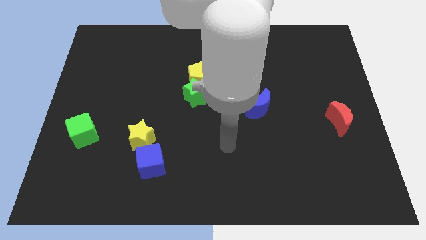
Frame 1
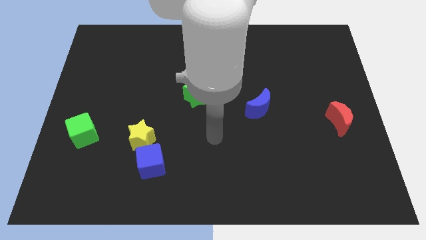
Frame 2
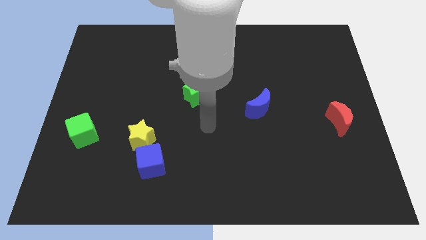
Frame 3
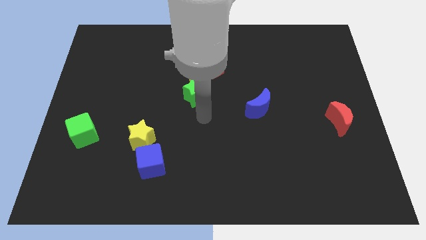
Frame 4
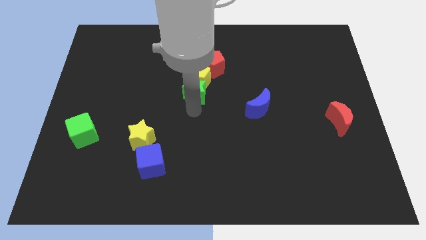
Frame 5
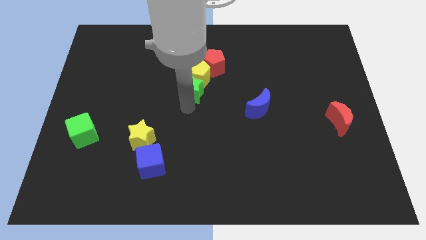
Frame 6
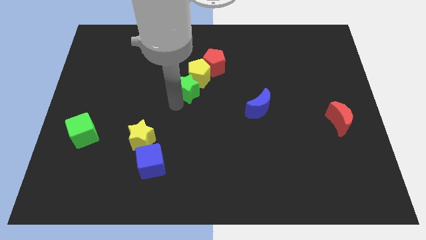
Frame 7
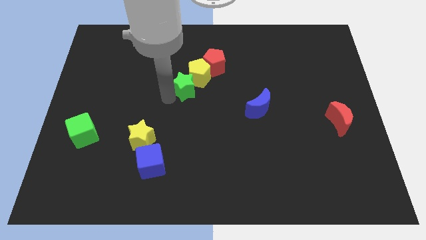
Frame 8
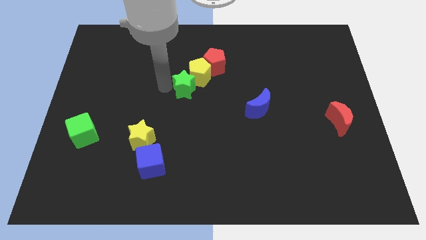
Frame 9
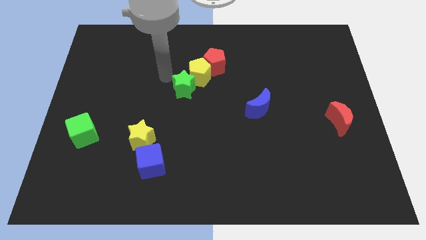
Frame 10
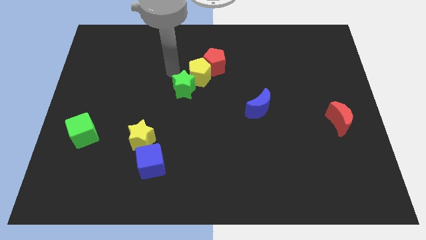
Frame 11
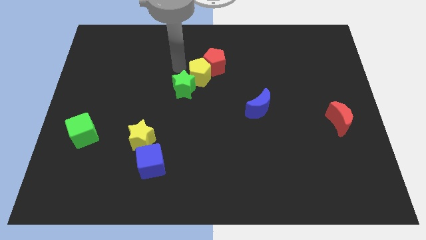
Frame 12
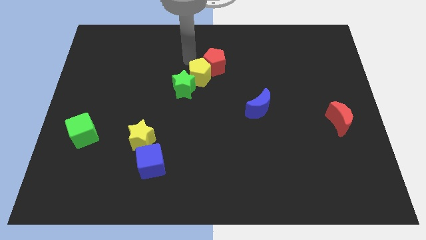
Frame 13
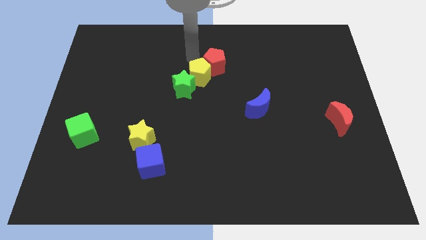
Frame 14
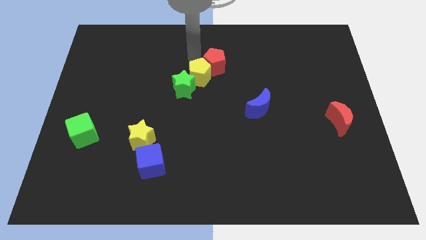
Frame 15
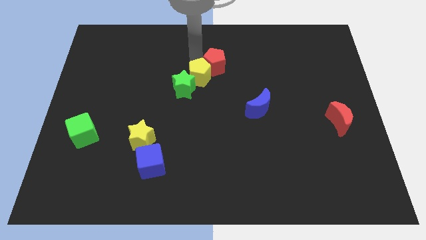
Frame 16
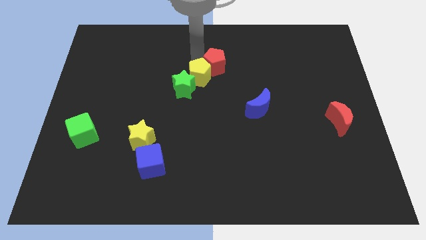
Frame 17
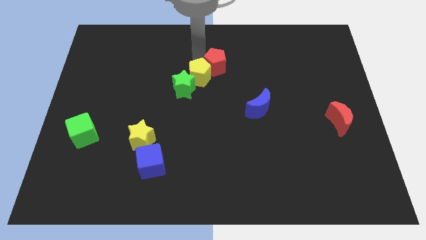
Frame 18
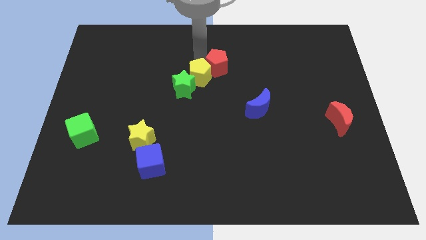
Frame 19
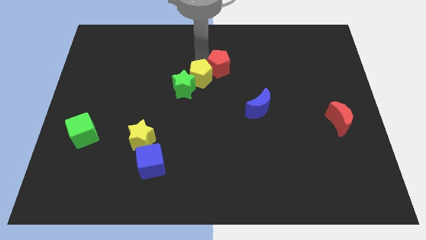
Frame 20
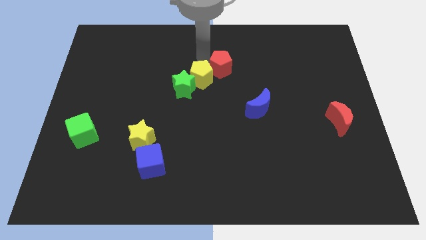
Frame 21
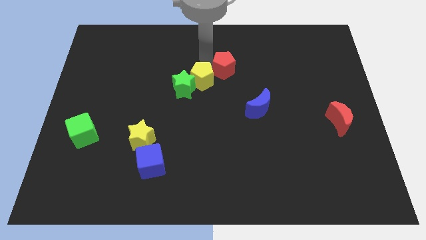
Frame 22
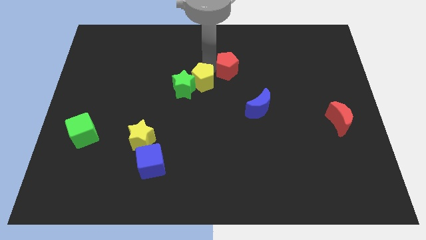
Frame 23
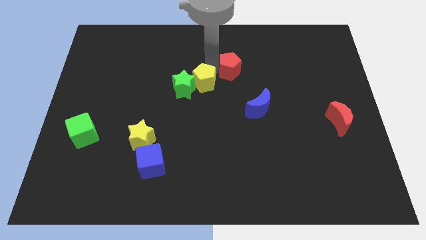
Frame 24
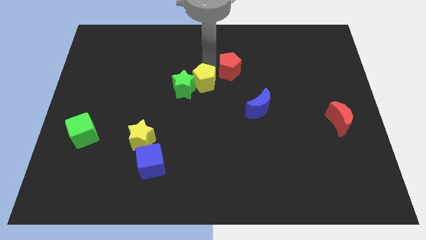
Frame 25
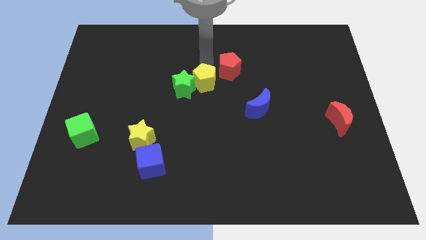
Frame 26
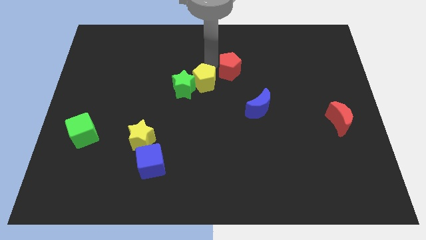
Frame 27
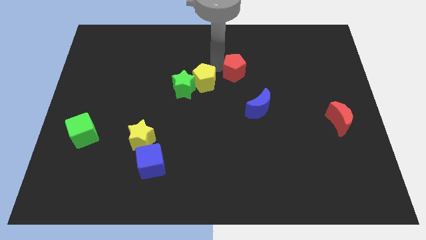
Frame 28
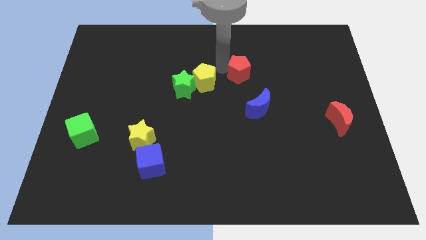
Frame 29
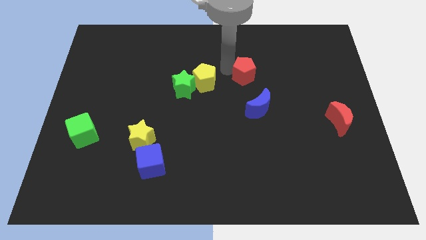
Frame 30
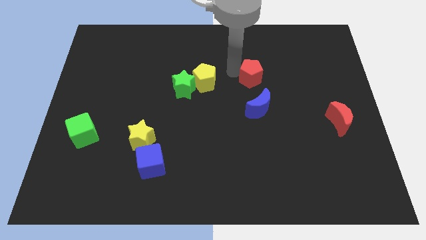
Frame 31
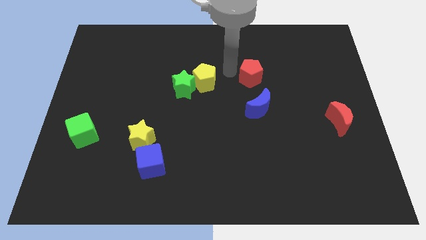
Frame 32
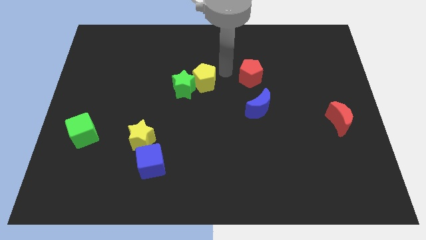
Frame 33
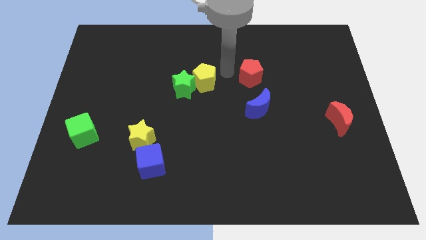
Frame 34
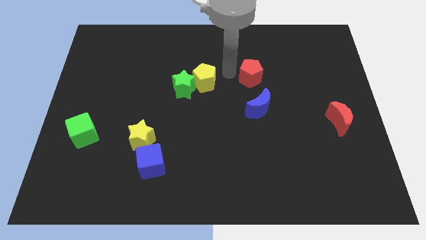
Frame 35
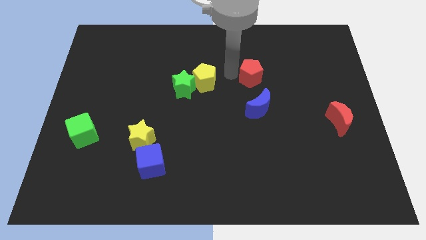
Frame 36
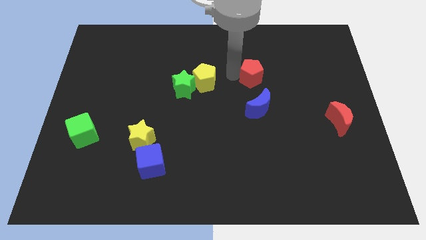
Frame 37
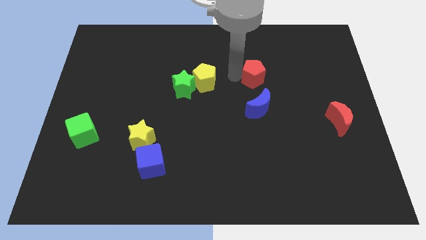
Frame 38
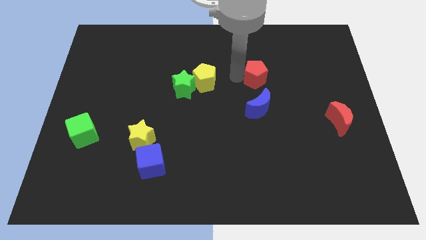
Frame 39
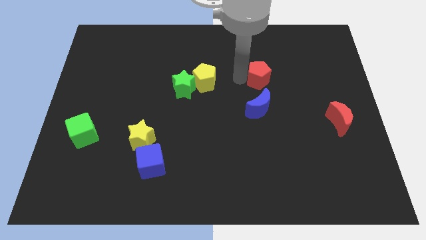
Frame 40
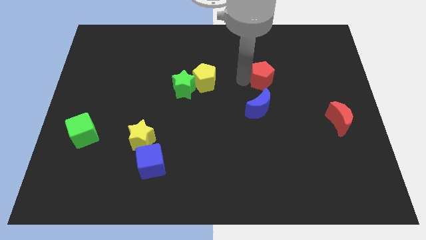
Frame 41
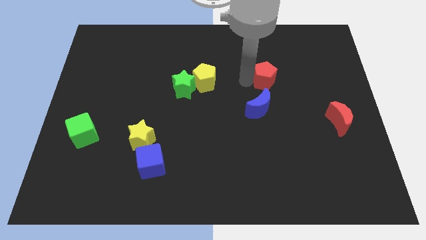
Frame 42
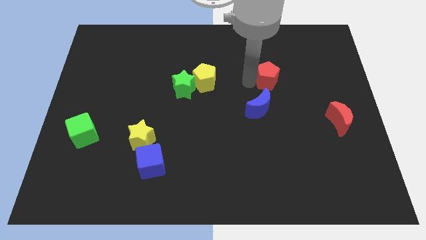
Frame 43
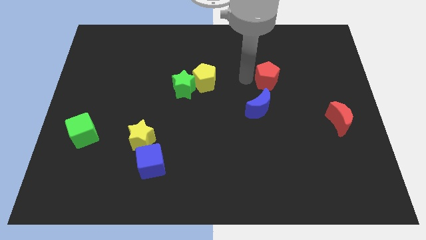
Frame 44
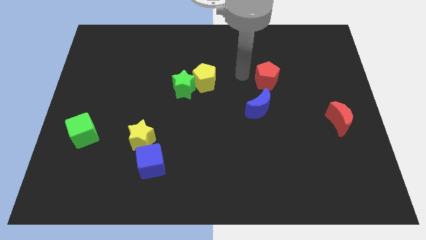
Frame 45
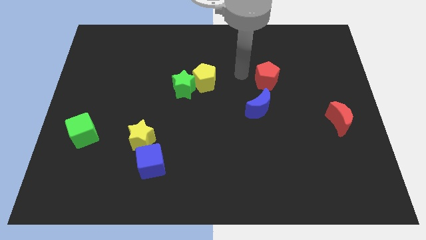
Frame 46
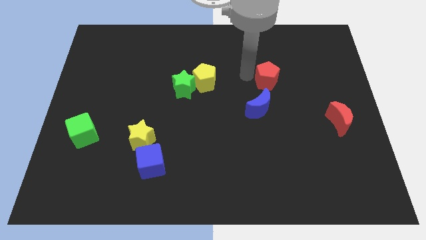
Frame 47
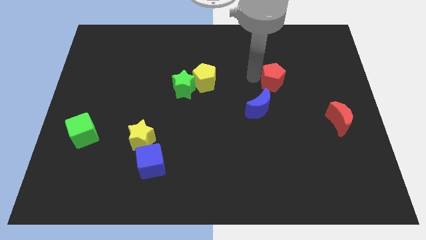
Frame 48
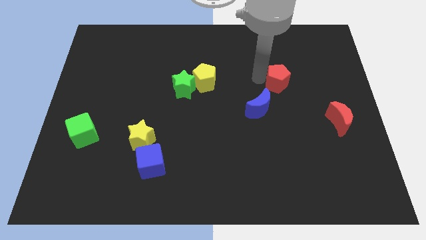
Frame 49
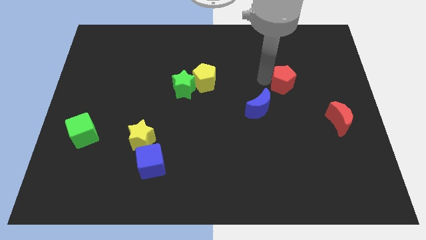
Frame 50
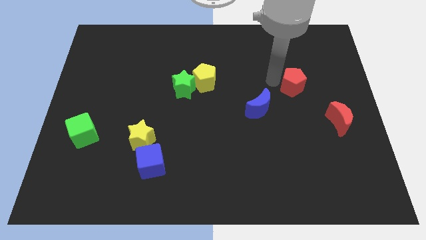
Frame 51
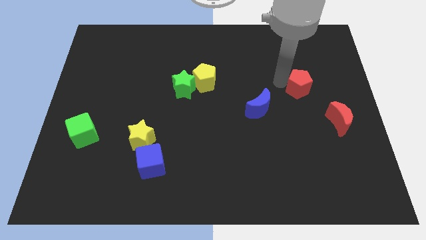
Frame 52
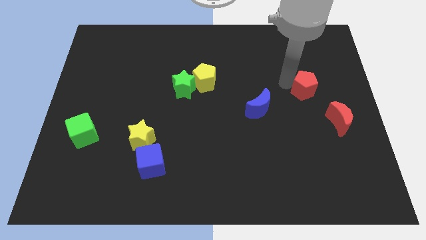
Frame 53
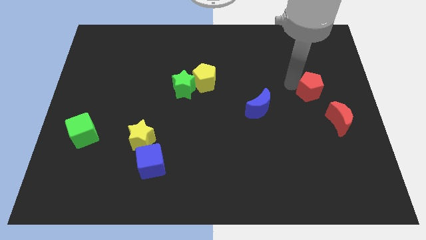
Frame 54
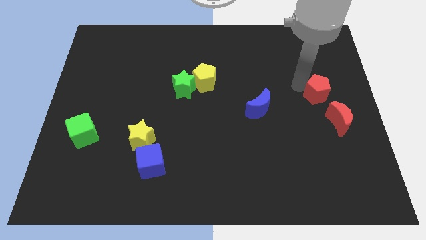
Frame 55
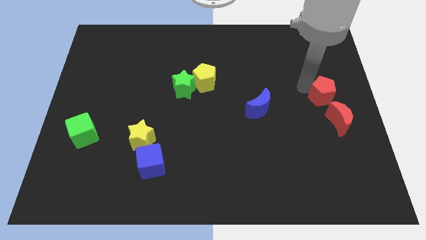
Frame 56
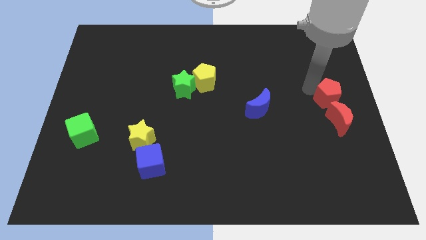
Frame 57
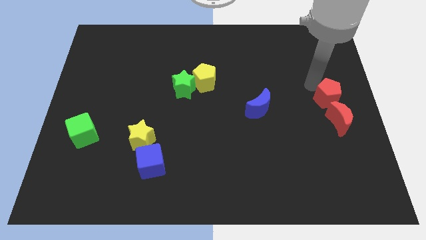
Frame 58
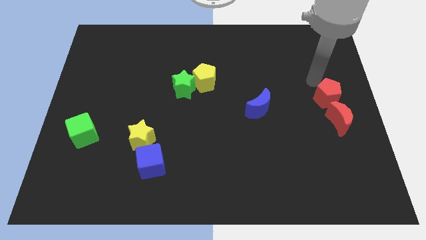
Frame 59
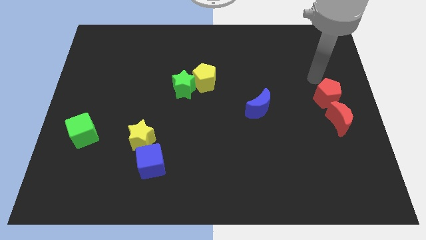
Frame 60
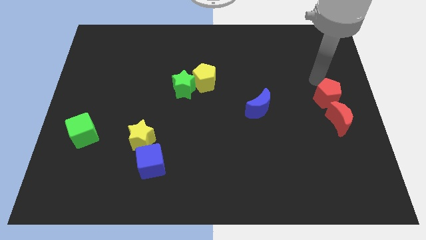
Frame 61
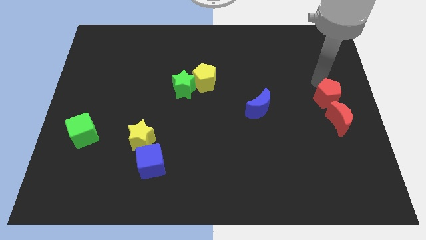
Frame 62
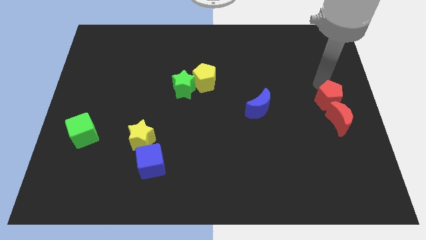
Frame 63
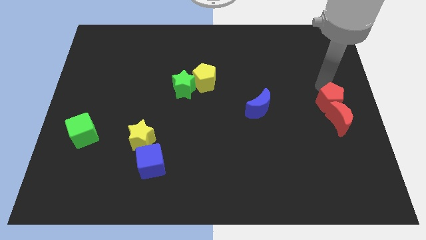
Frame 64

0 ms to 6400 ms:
move the red pentagon next to the red moon

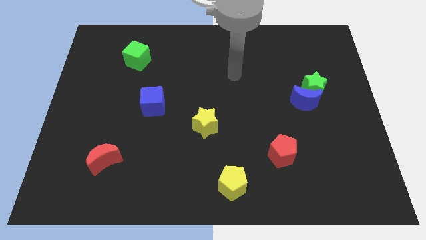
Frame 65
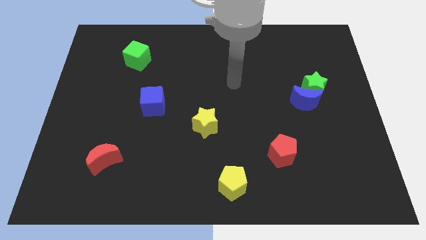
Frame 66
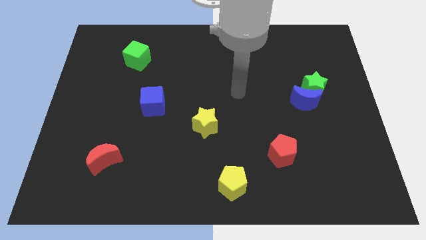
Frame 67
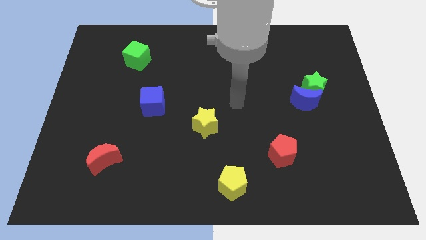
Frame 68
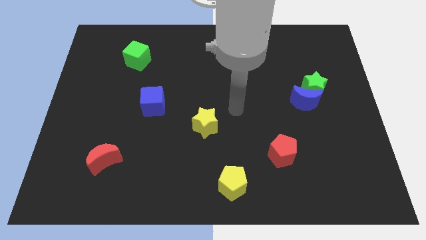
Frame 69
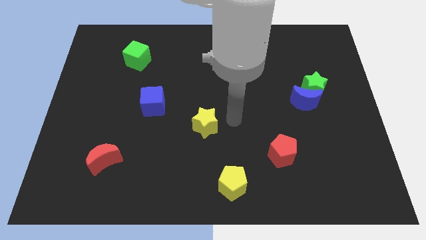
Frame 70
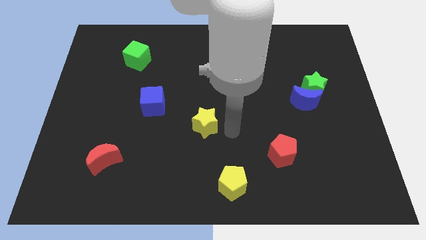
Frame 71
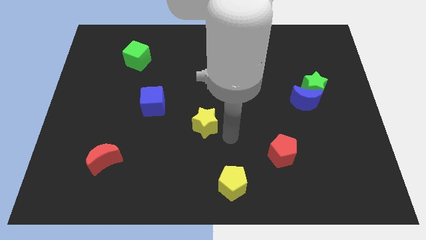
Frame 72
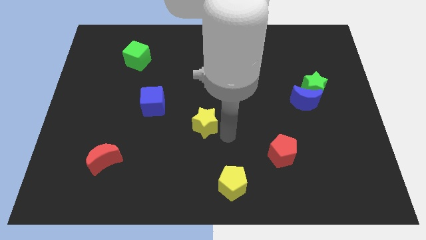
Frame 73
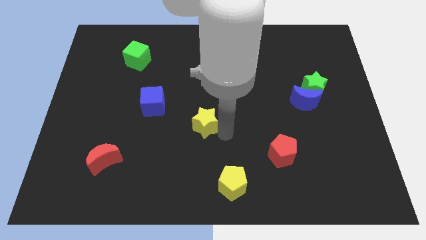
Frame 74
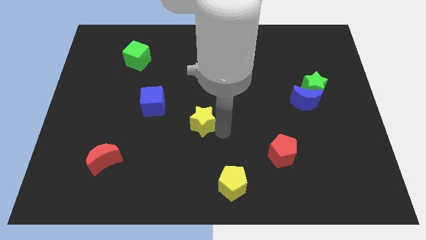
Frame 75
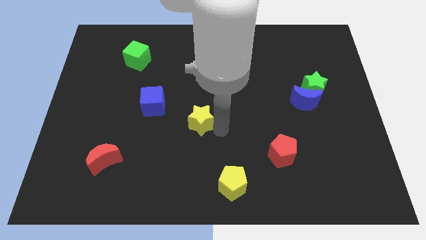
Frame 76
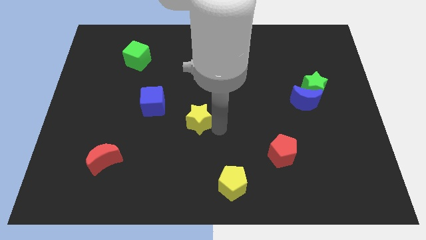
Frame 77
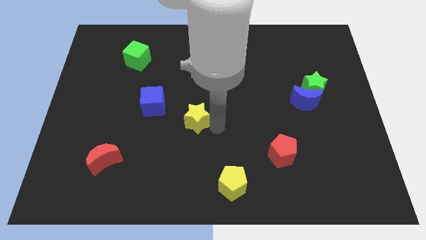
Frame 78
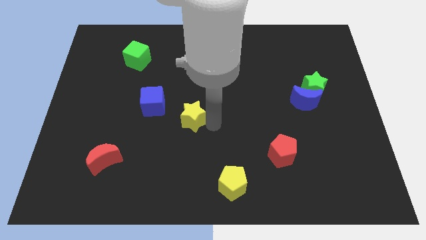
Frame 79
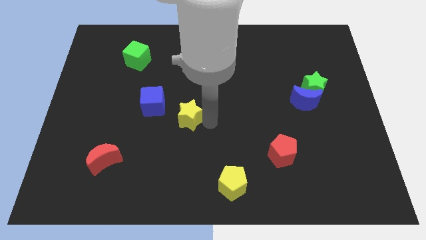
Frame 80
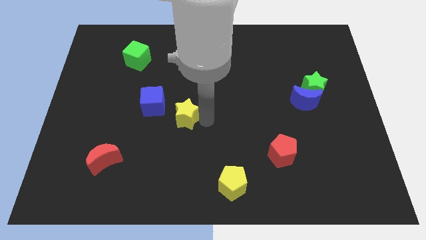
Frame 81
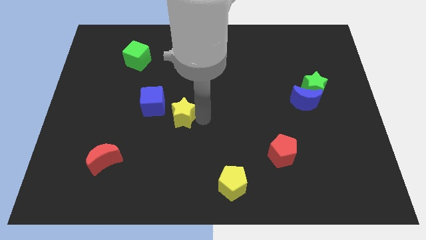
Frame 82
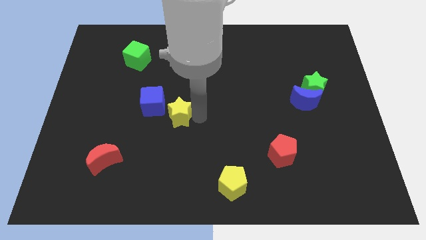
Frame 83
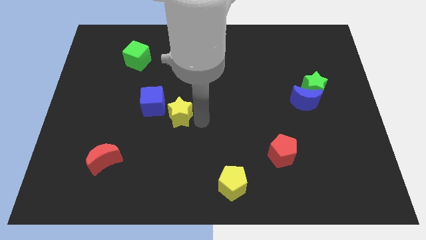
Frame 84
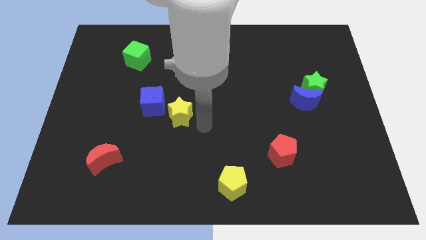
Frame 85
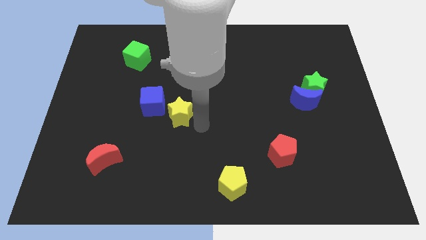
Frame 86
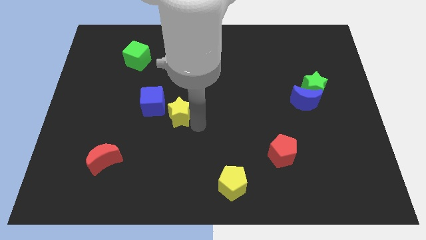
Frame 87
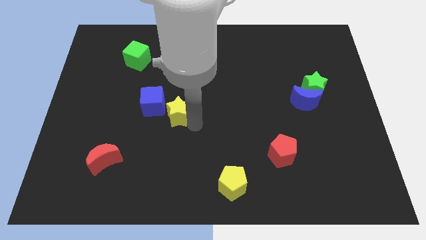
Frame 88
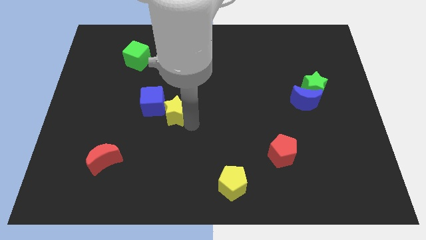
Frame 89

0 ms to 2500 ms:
put the yellow star next to the blue cube
